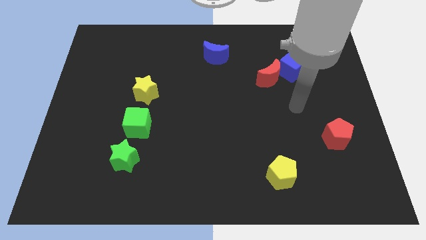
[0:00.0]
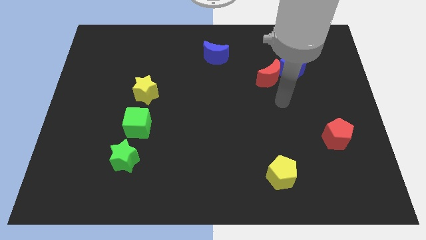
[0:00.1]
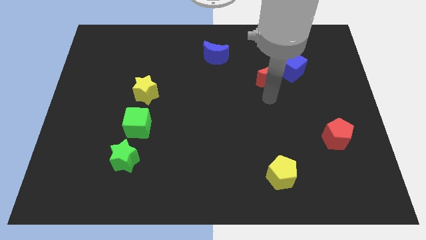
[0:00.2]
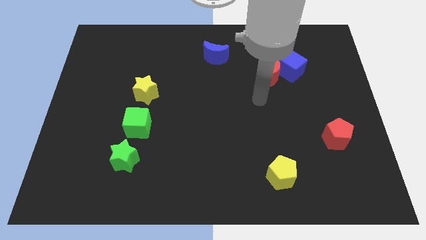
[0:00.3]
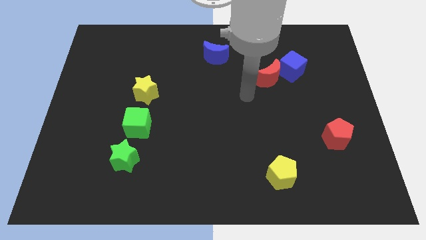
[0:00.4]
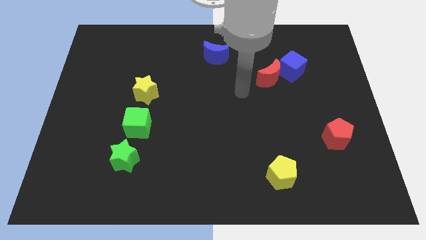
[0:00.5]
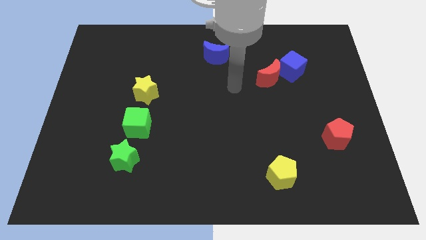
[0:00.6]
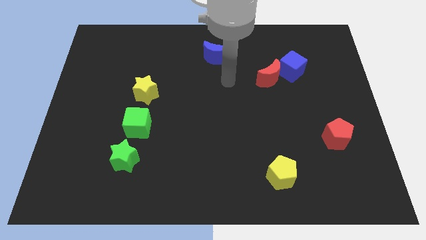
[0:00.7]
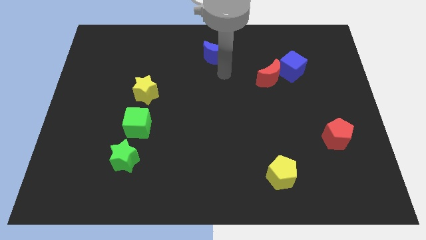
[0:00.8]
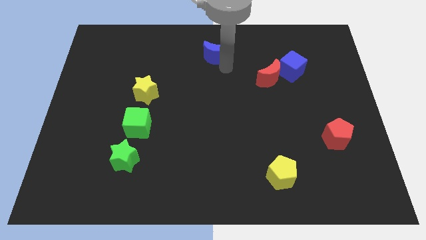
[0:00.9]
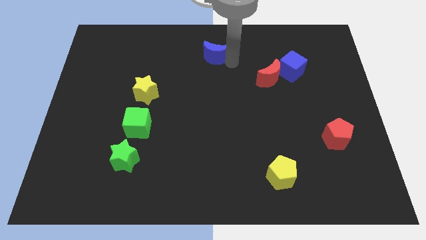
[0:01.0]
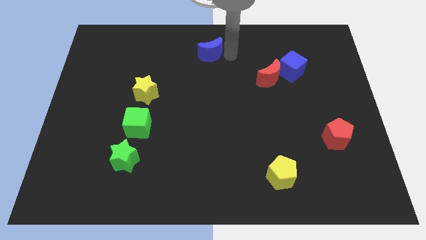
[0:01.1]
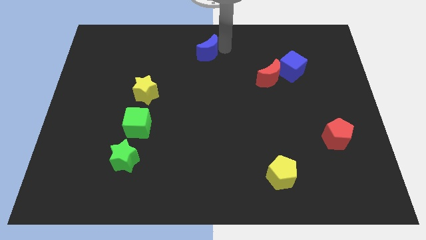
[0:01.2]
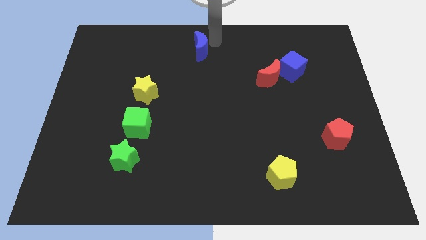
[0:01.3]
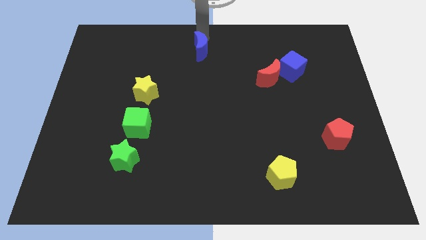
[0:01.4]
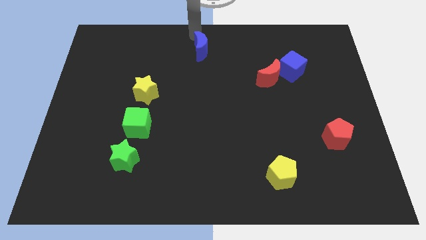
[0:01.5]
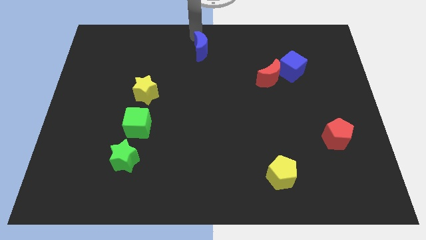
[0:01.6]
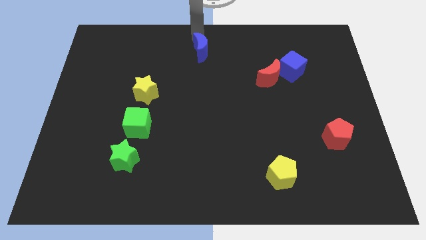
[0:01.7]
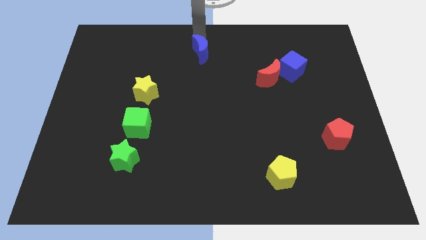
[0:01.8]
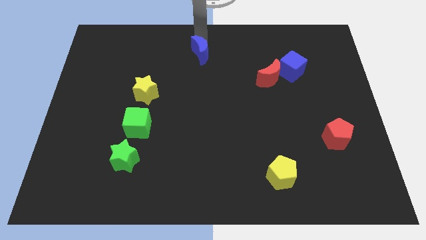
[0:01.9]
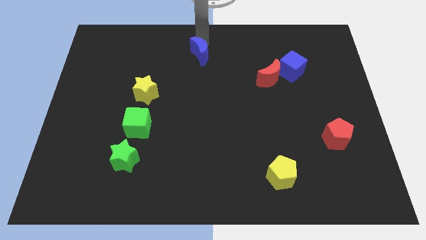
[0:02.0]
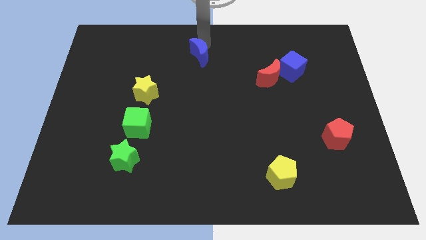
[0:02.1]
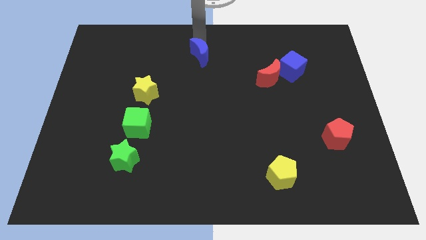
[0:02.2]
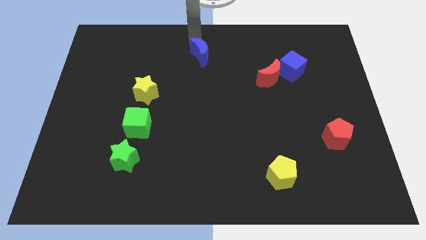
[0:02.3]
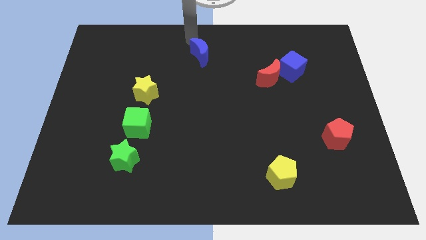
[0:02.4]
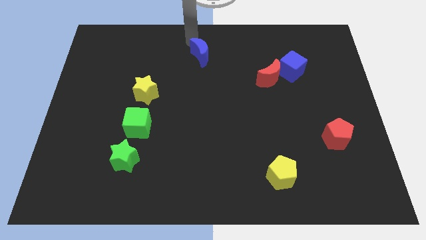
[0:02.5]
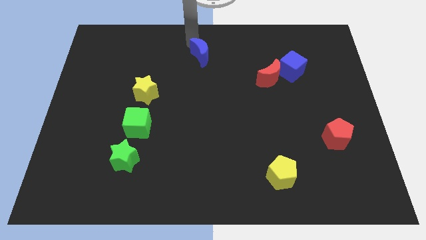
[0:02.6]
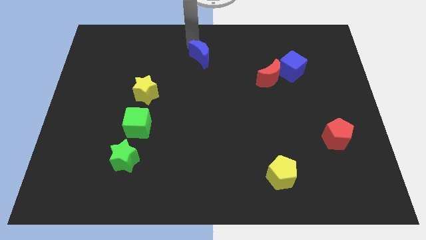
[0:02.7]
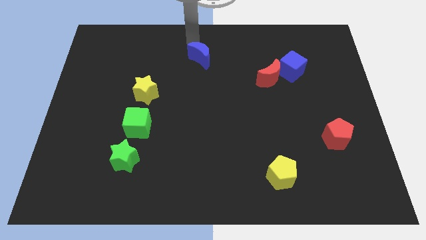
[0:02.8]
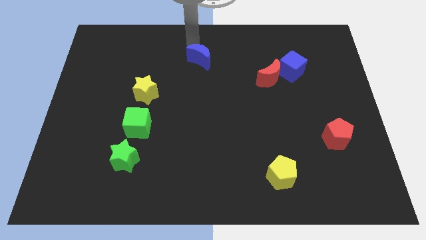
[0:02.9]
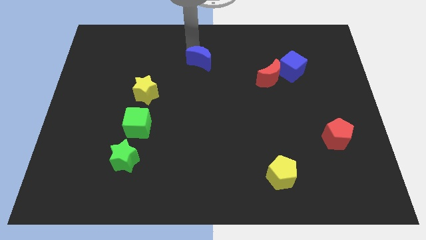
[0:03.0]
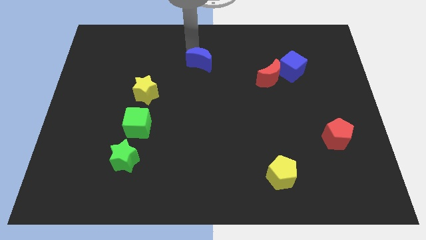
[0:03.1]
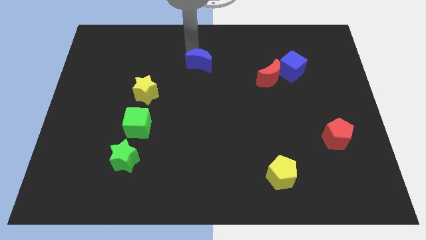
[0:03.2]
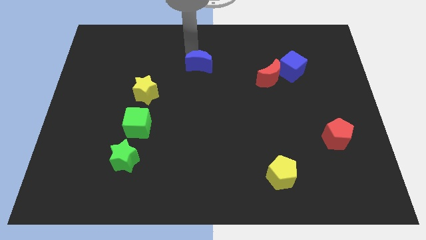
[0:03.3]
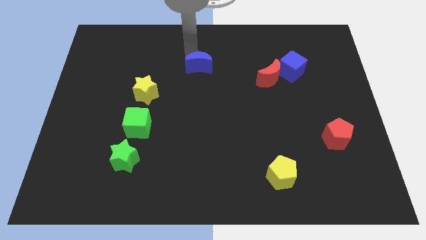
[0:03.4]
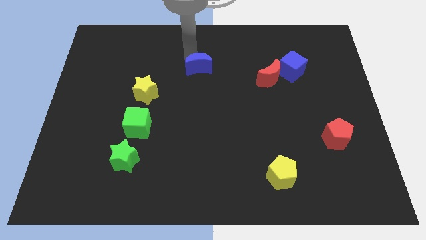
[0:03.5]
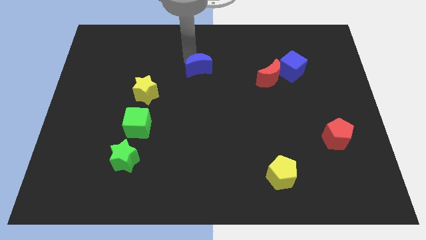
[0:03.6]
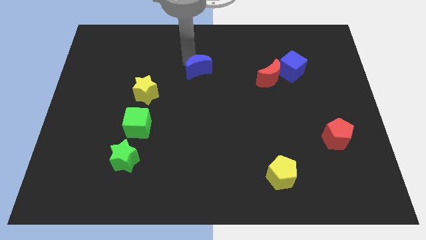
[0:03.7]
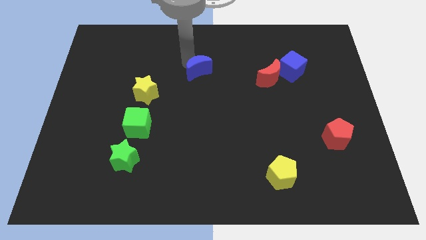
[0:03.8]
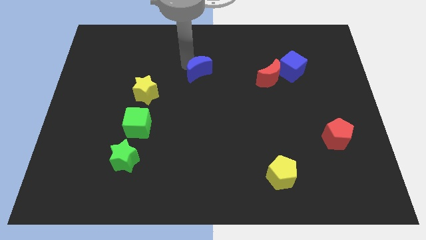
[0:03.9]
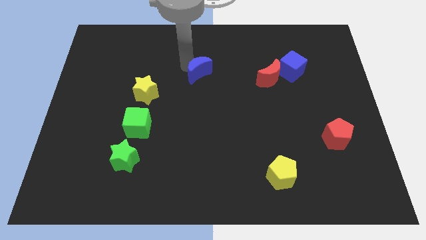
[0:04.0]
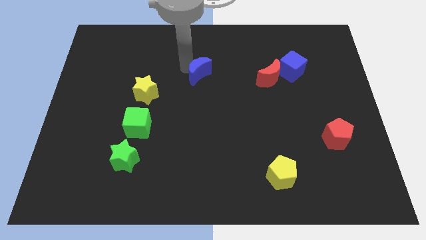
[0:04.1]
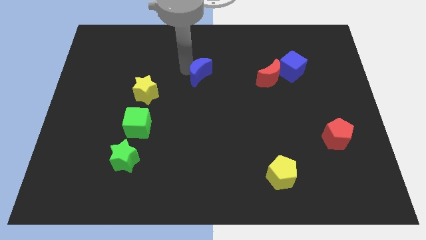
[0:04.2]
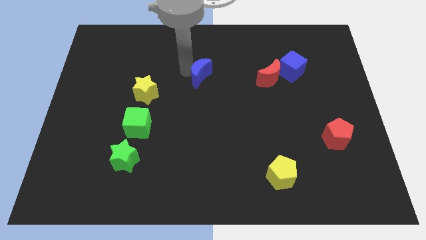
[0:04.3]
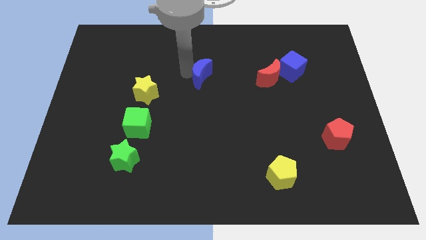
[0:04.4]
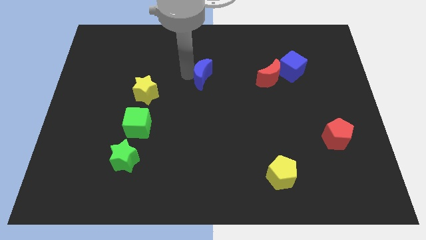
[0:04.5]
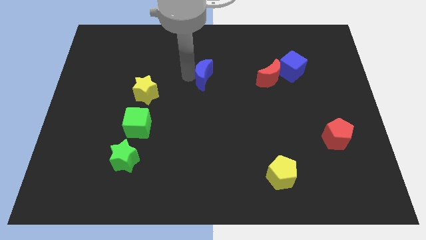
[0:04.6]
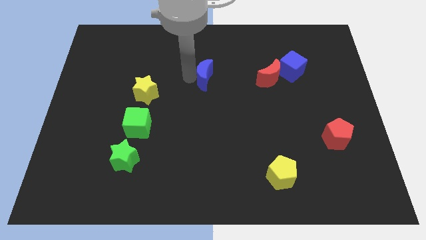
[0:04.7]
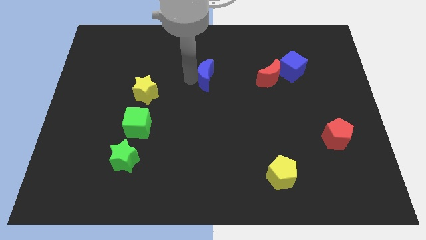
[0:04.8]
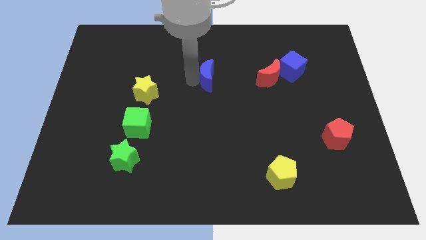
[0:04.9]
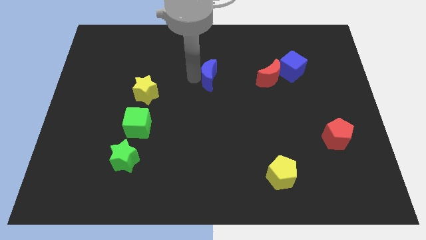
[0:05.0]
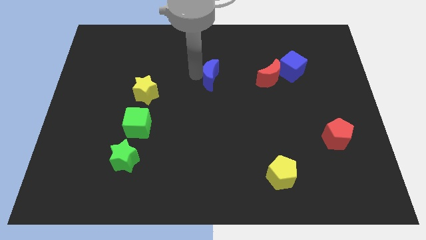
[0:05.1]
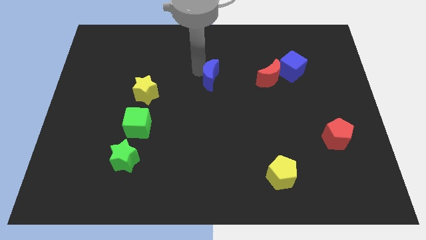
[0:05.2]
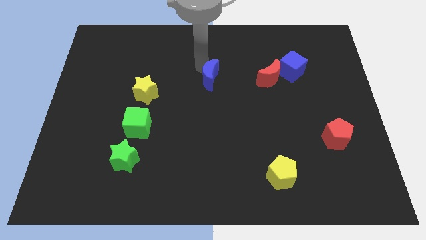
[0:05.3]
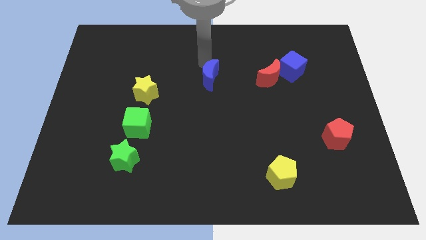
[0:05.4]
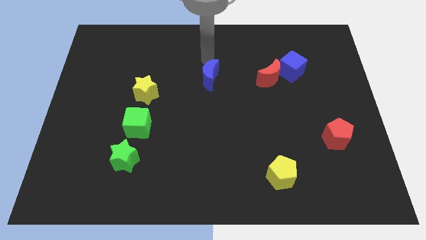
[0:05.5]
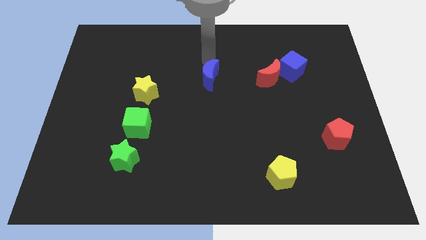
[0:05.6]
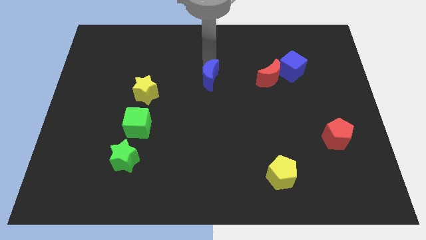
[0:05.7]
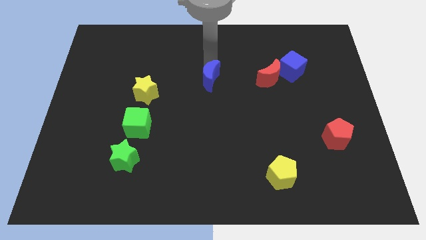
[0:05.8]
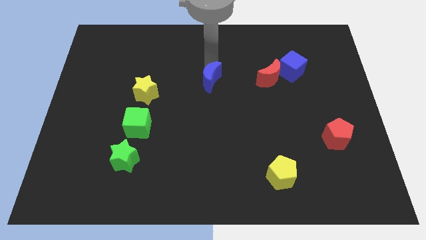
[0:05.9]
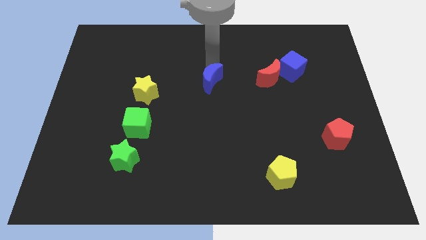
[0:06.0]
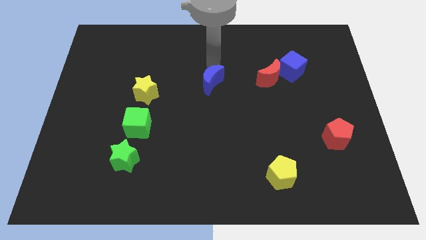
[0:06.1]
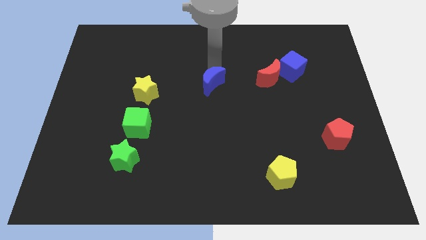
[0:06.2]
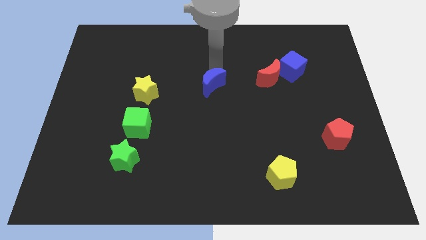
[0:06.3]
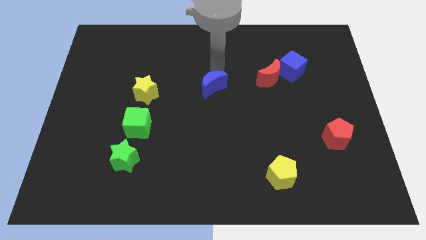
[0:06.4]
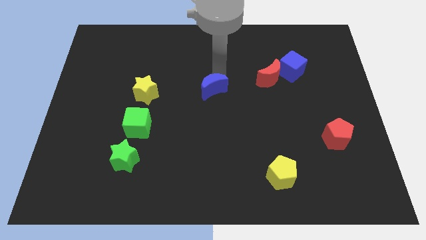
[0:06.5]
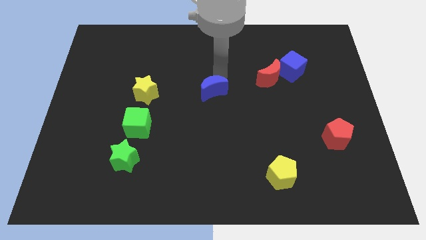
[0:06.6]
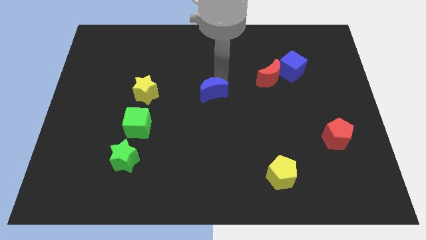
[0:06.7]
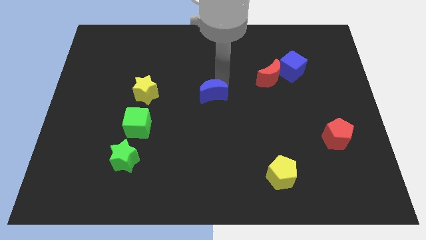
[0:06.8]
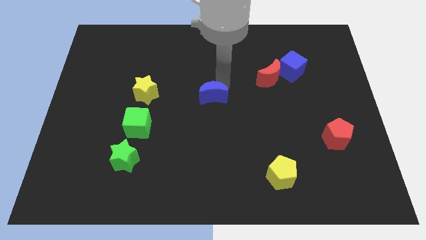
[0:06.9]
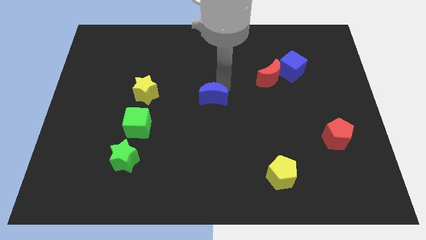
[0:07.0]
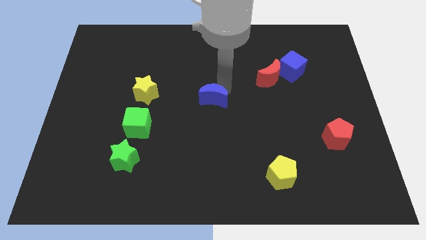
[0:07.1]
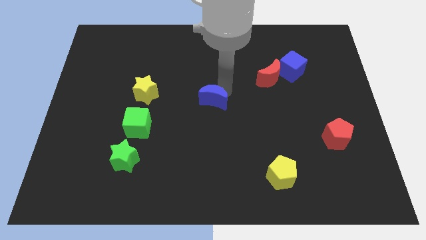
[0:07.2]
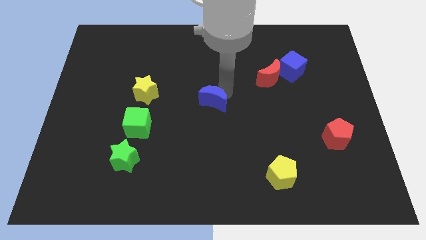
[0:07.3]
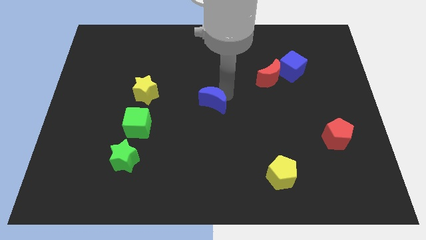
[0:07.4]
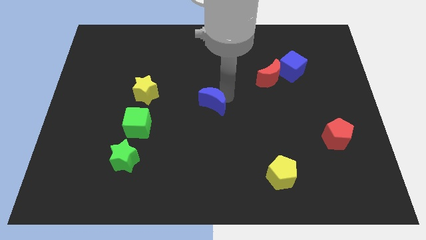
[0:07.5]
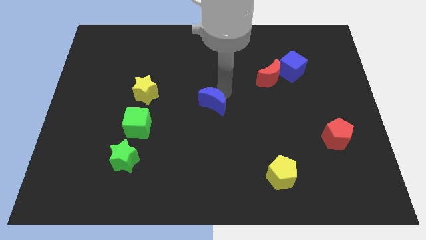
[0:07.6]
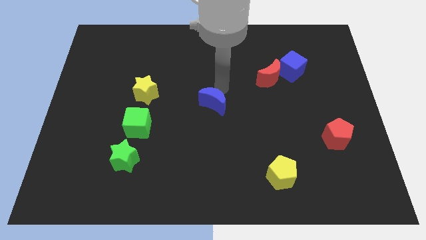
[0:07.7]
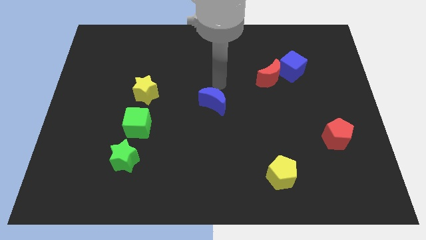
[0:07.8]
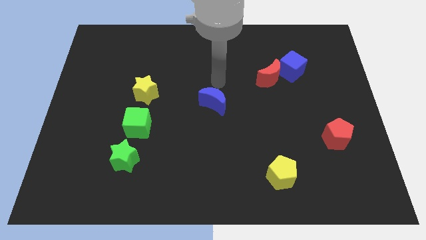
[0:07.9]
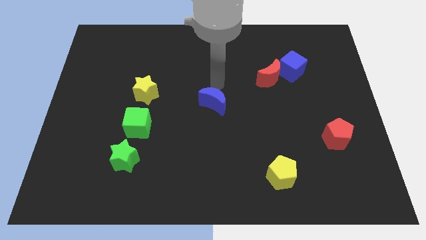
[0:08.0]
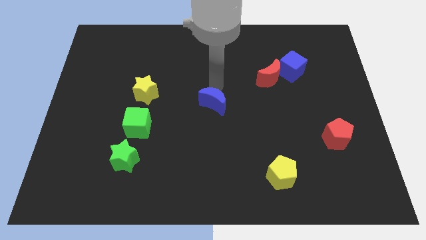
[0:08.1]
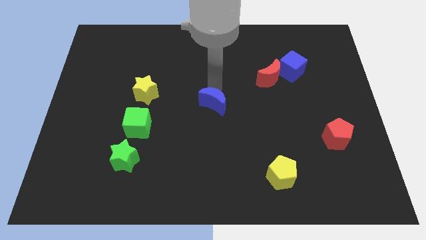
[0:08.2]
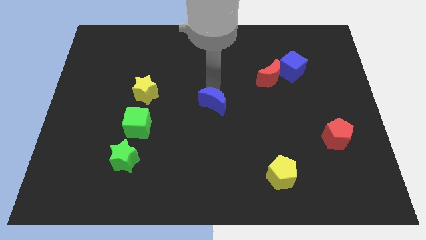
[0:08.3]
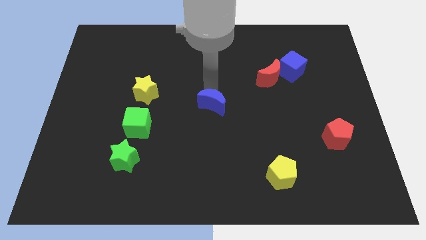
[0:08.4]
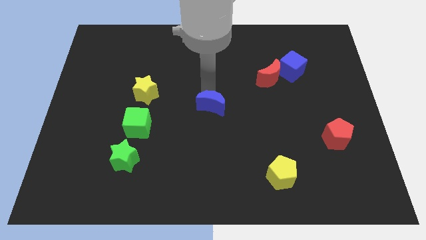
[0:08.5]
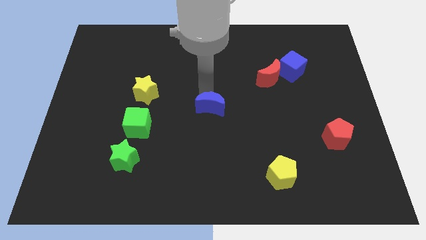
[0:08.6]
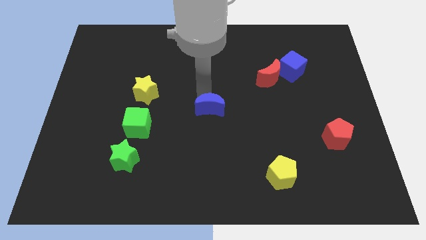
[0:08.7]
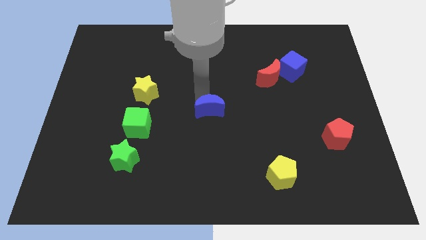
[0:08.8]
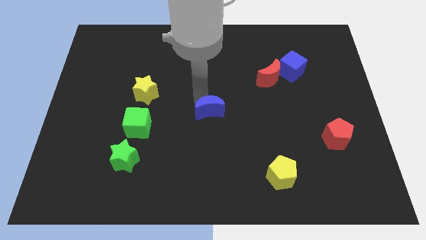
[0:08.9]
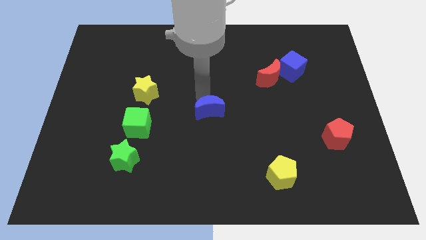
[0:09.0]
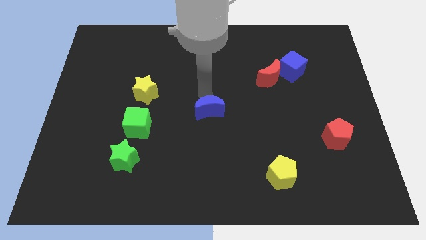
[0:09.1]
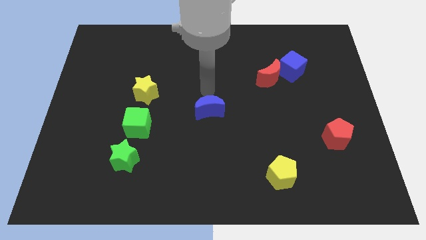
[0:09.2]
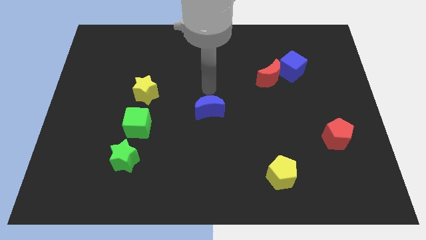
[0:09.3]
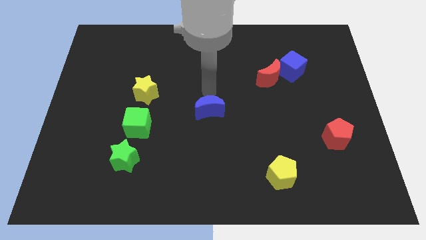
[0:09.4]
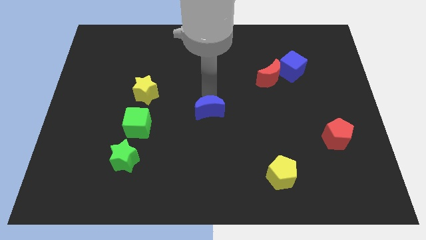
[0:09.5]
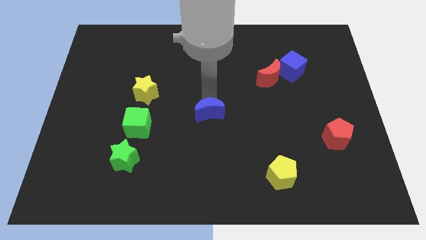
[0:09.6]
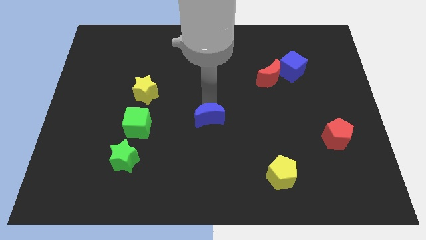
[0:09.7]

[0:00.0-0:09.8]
slide the blue moon down
